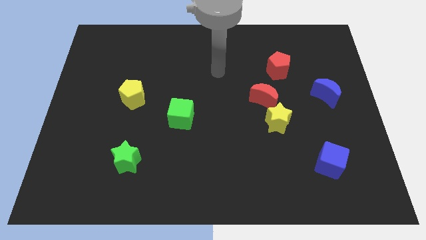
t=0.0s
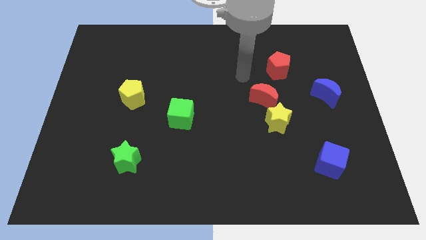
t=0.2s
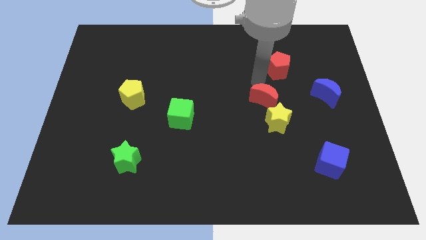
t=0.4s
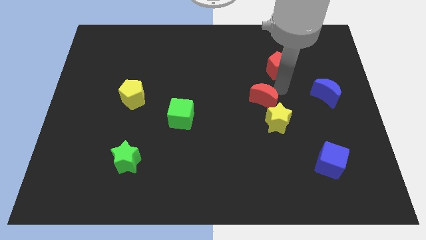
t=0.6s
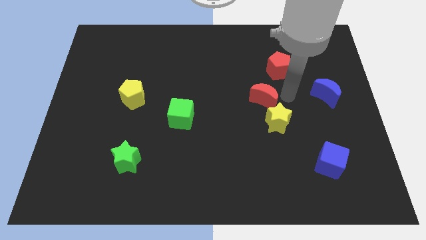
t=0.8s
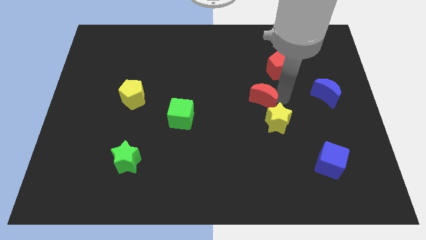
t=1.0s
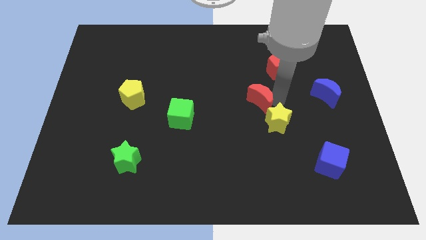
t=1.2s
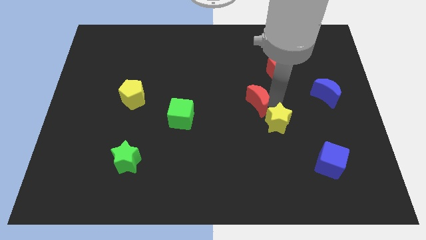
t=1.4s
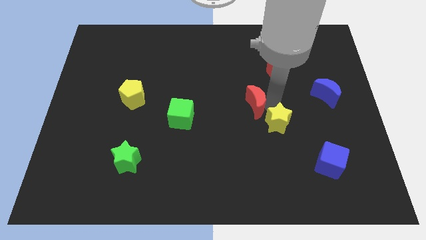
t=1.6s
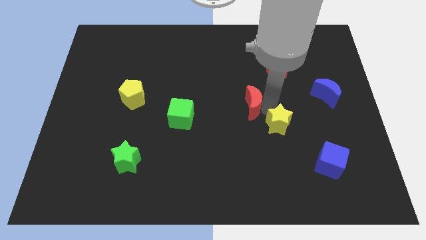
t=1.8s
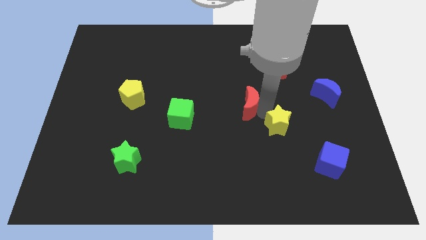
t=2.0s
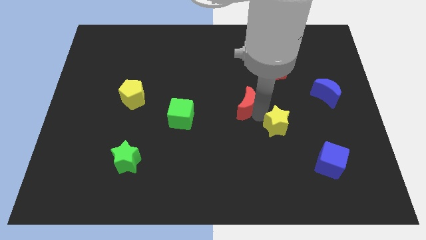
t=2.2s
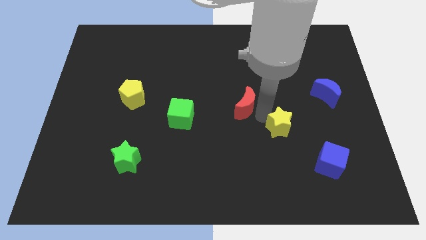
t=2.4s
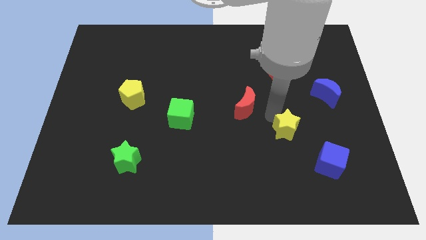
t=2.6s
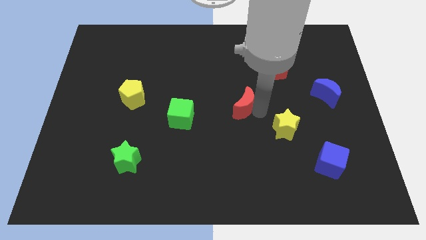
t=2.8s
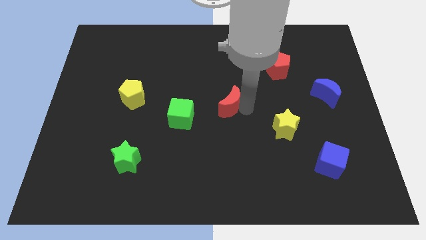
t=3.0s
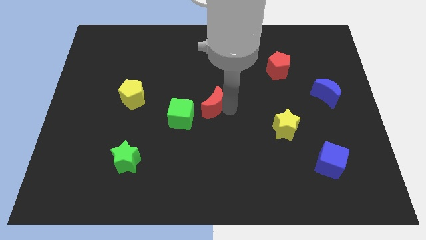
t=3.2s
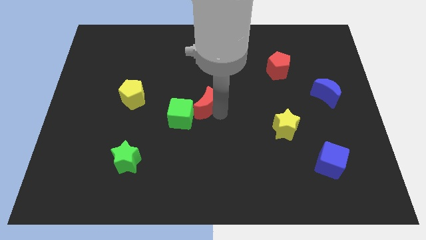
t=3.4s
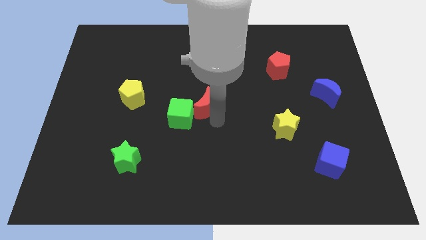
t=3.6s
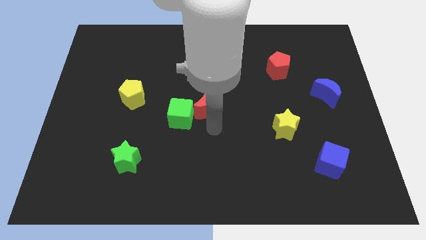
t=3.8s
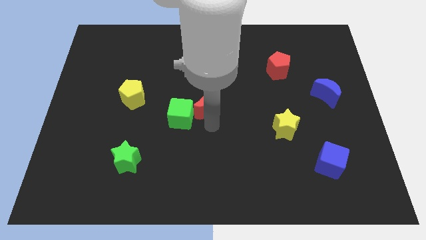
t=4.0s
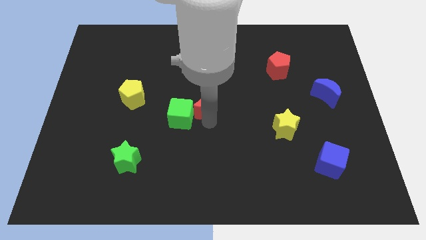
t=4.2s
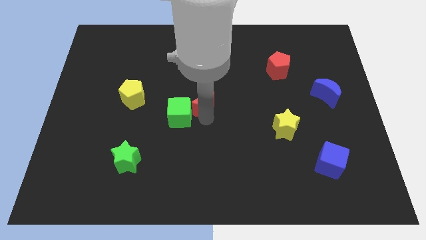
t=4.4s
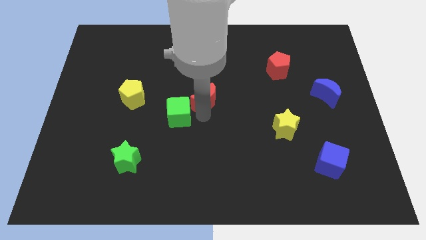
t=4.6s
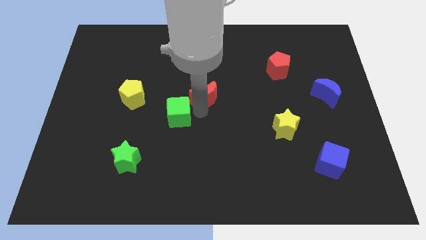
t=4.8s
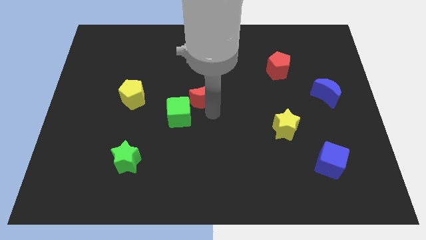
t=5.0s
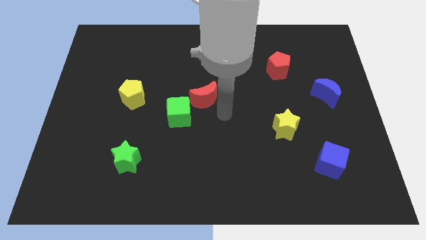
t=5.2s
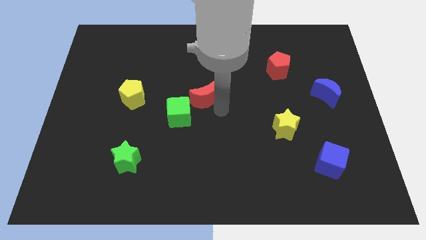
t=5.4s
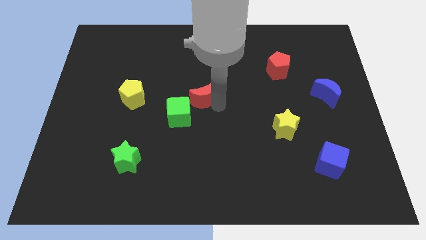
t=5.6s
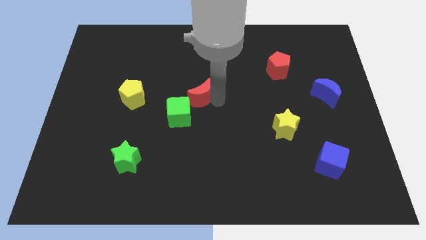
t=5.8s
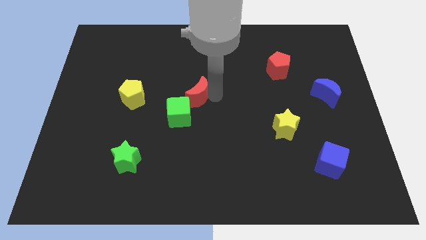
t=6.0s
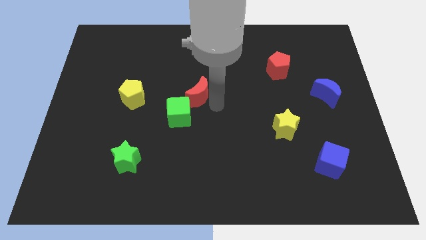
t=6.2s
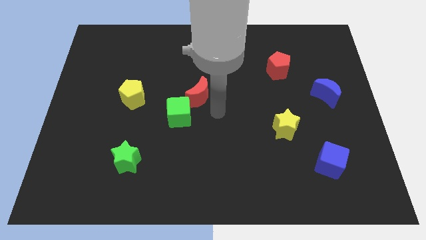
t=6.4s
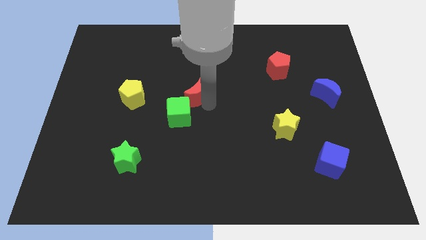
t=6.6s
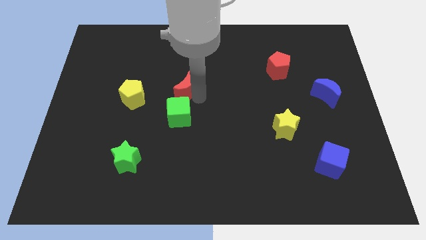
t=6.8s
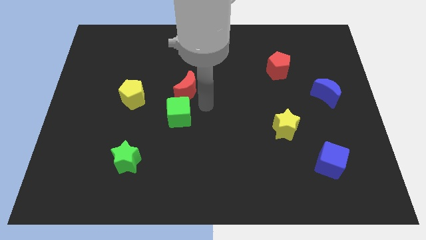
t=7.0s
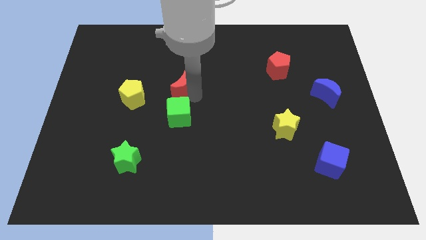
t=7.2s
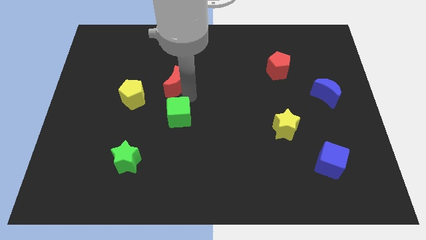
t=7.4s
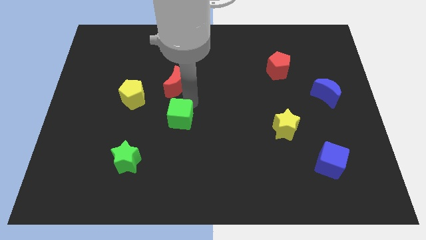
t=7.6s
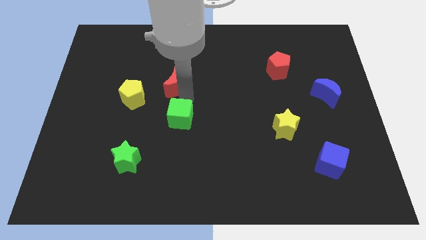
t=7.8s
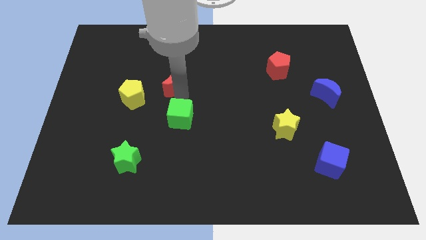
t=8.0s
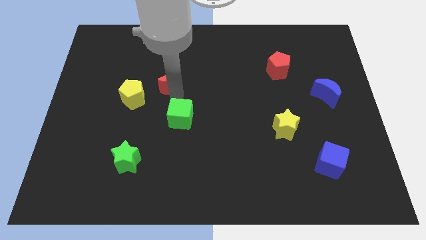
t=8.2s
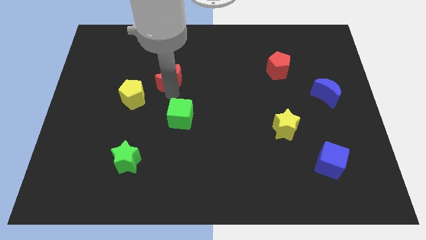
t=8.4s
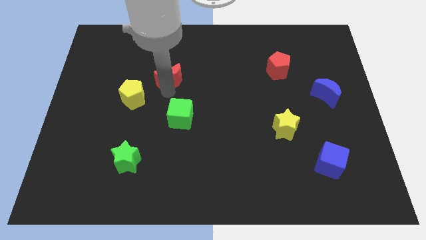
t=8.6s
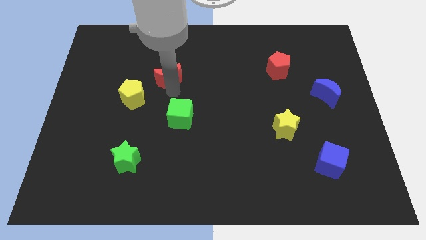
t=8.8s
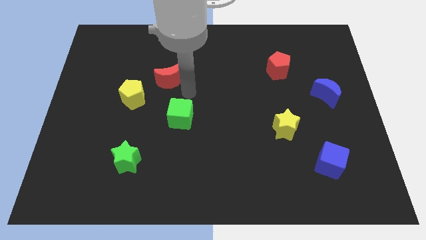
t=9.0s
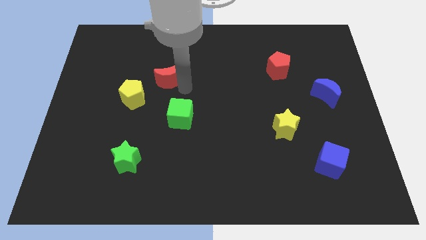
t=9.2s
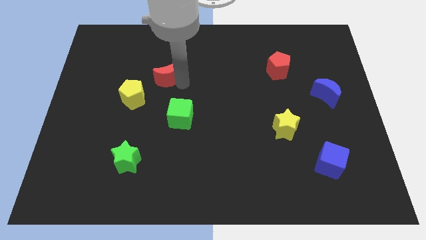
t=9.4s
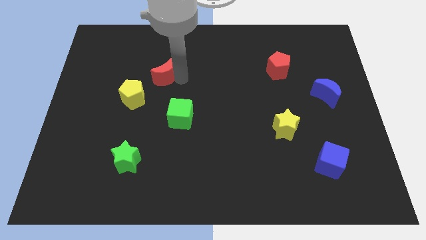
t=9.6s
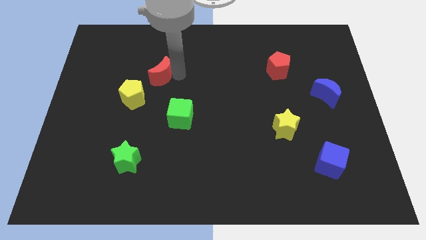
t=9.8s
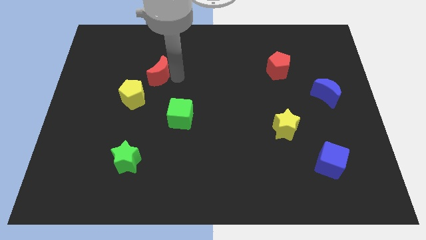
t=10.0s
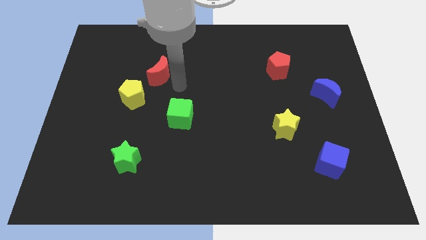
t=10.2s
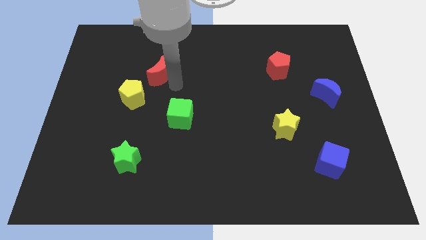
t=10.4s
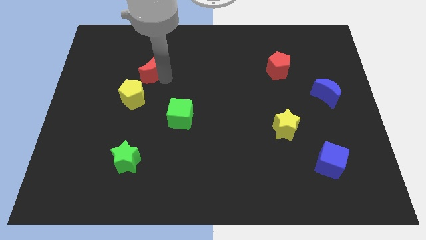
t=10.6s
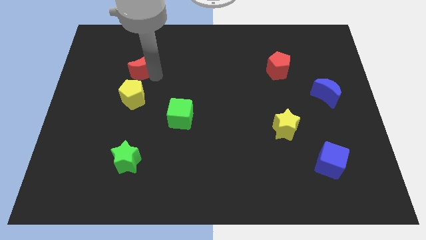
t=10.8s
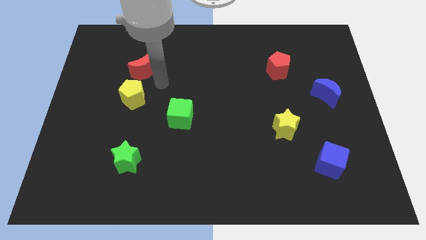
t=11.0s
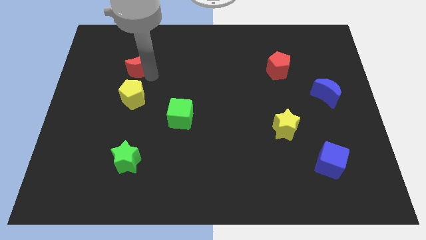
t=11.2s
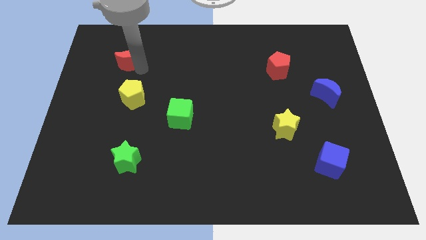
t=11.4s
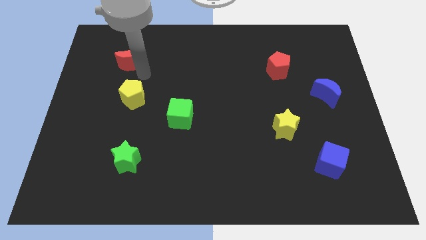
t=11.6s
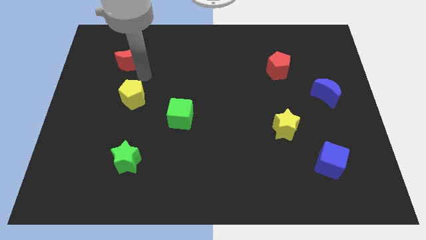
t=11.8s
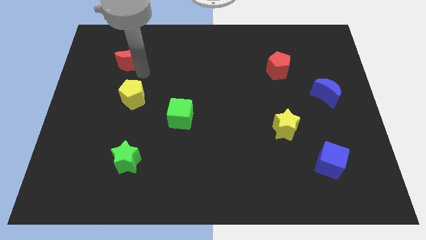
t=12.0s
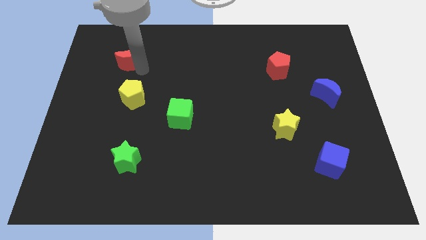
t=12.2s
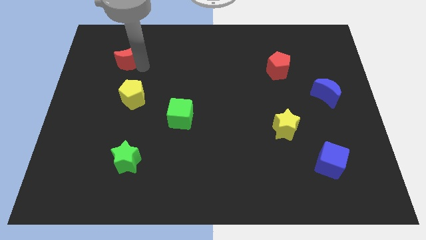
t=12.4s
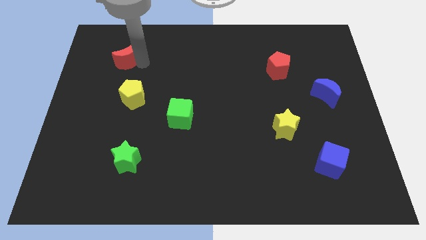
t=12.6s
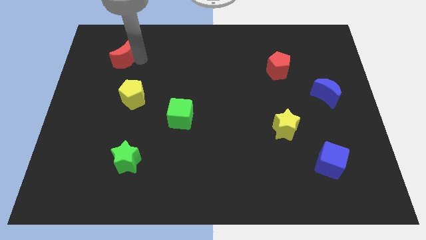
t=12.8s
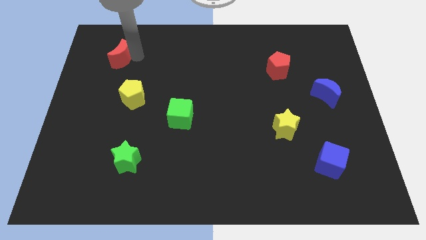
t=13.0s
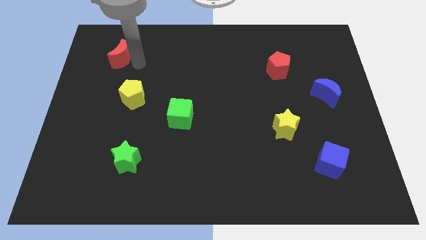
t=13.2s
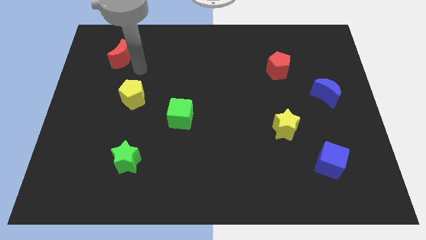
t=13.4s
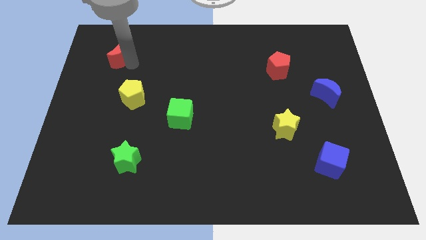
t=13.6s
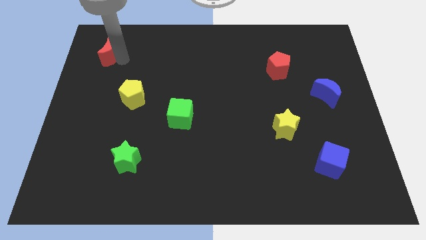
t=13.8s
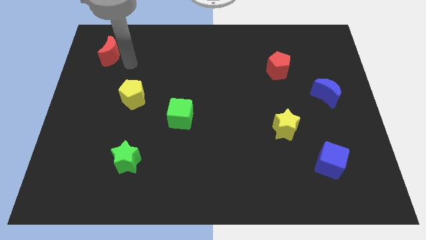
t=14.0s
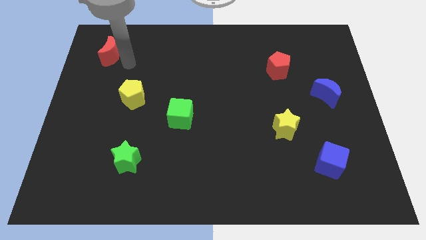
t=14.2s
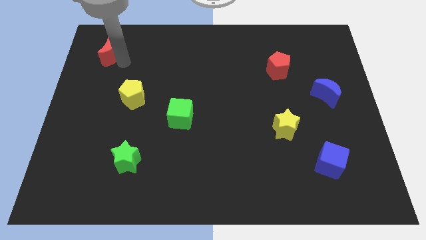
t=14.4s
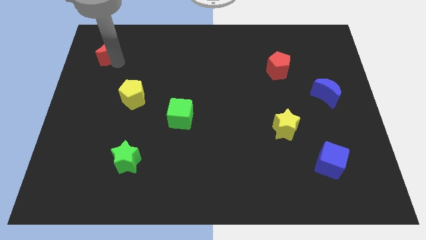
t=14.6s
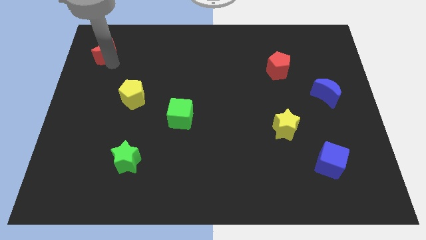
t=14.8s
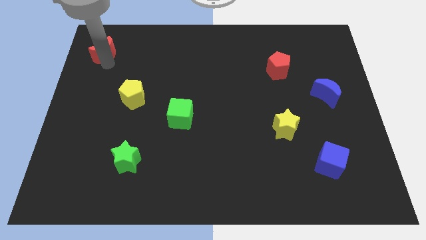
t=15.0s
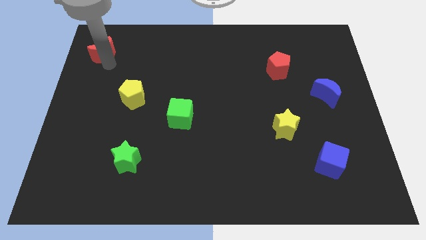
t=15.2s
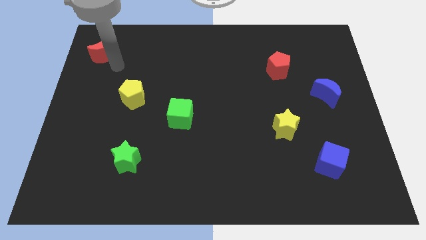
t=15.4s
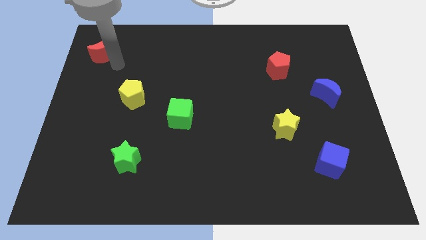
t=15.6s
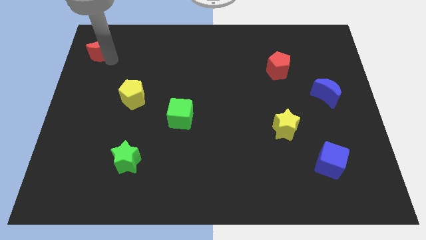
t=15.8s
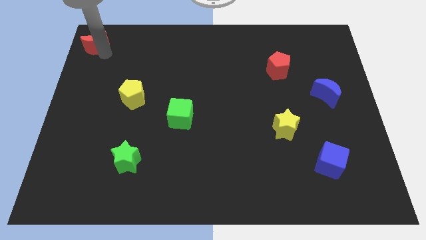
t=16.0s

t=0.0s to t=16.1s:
push the red moon to the upper left corner
